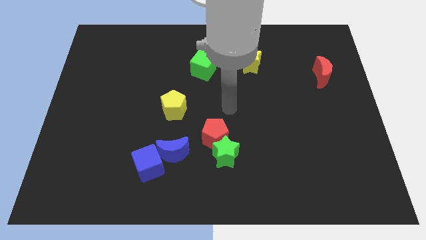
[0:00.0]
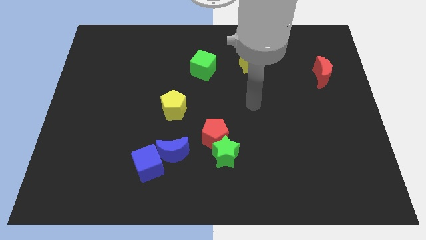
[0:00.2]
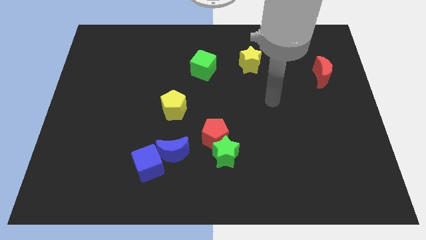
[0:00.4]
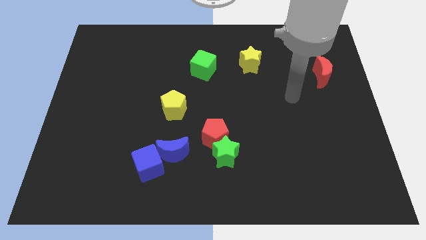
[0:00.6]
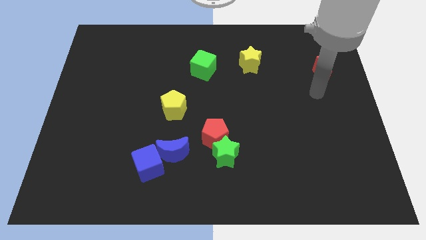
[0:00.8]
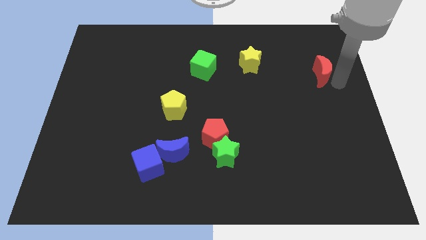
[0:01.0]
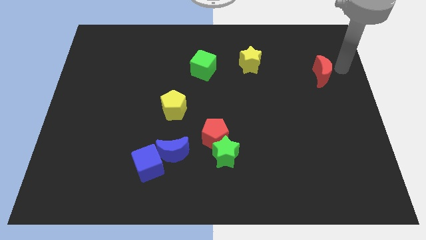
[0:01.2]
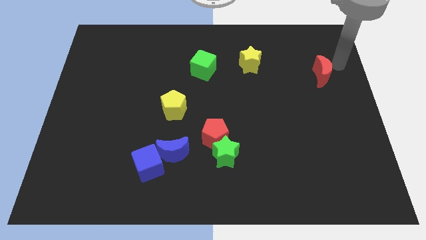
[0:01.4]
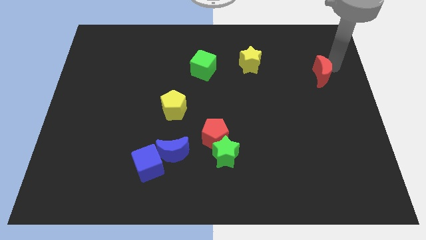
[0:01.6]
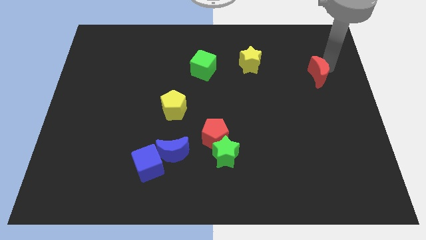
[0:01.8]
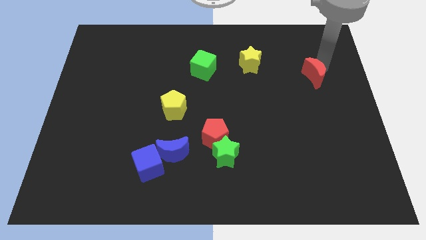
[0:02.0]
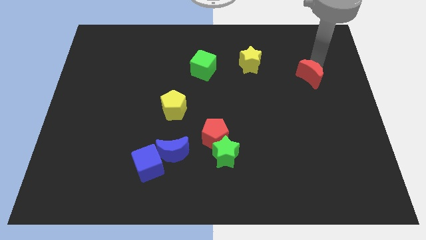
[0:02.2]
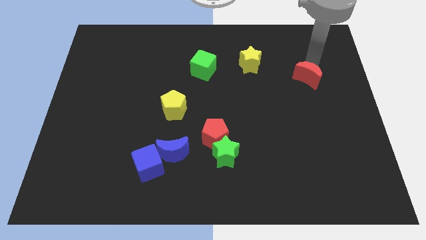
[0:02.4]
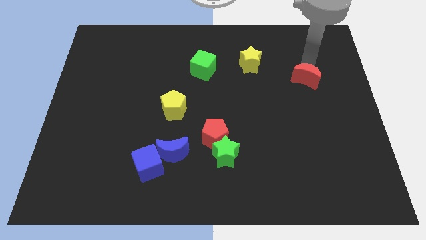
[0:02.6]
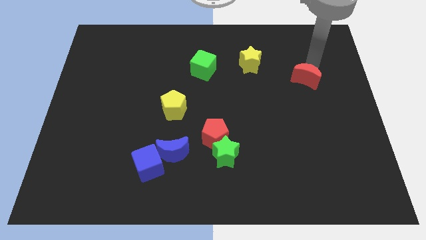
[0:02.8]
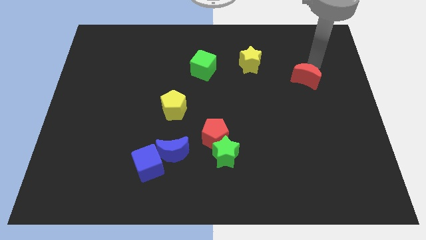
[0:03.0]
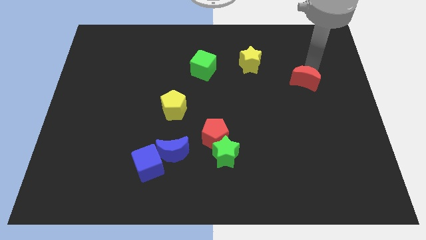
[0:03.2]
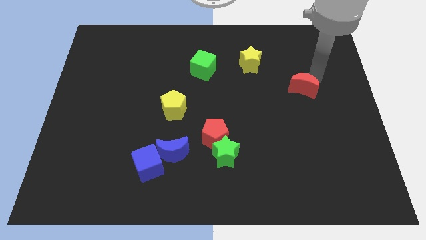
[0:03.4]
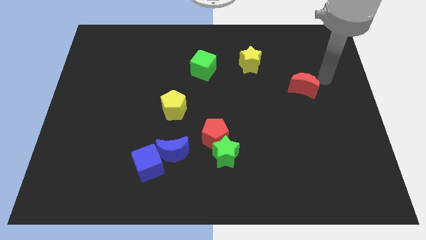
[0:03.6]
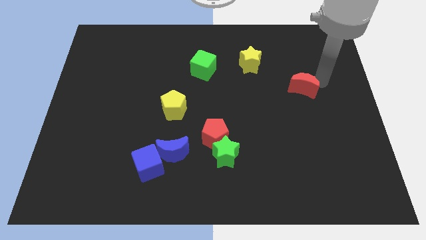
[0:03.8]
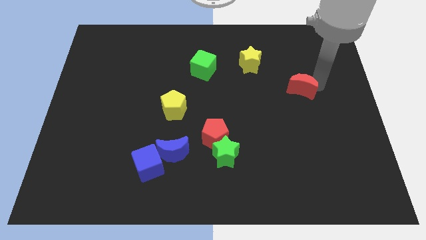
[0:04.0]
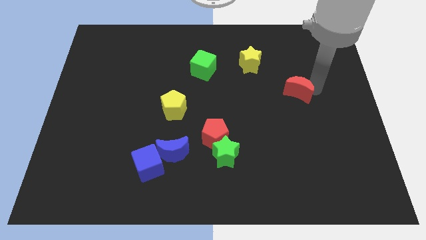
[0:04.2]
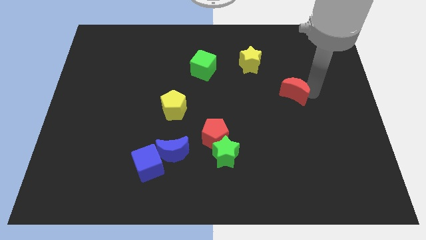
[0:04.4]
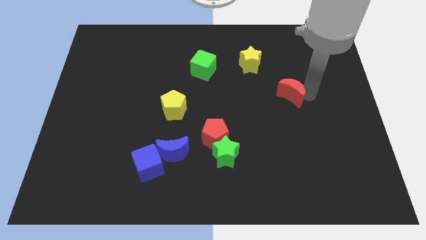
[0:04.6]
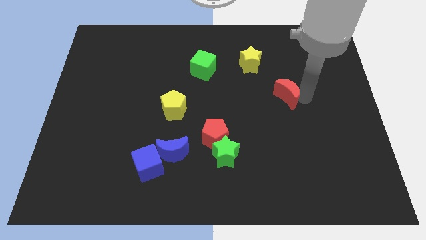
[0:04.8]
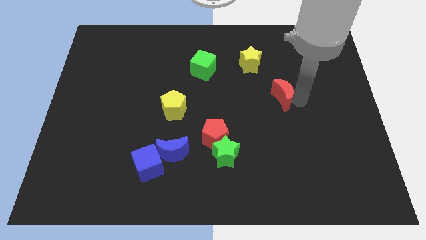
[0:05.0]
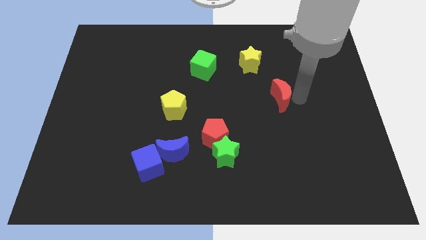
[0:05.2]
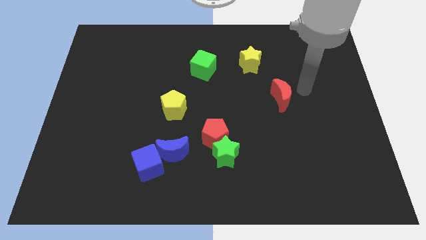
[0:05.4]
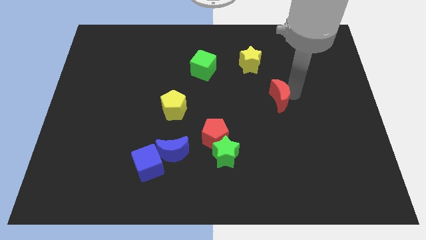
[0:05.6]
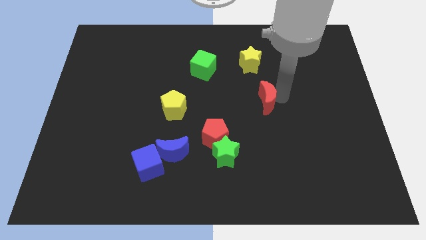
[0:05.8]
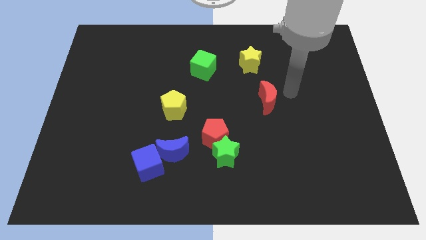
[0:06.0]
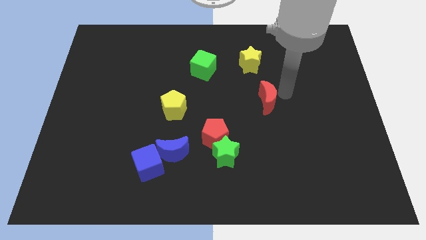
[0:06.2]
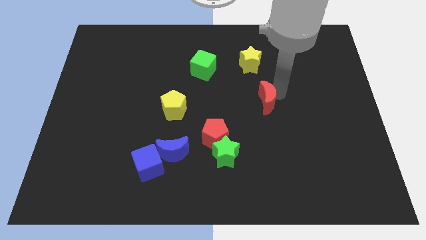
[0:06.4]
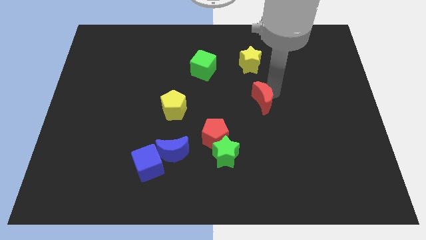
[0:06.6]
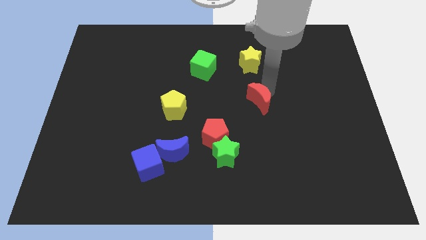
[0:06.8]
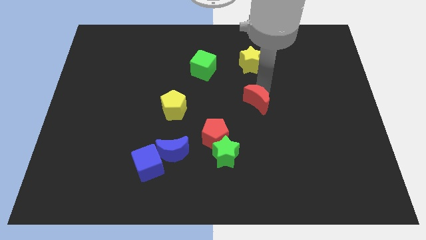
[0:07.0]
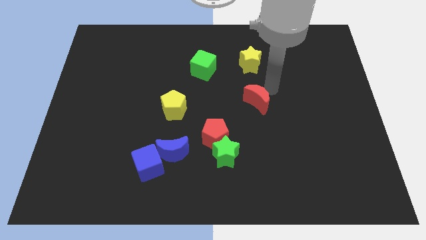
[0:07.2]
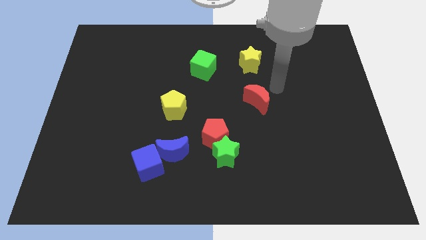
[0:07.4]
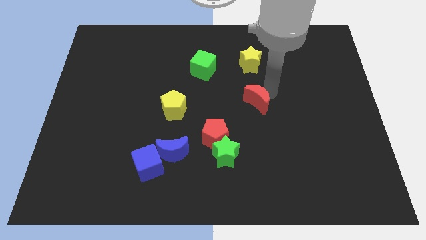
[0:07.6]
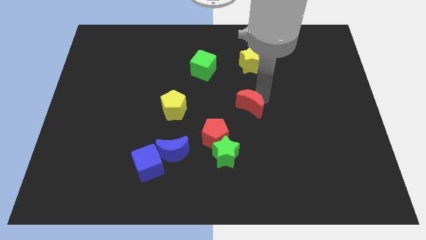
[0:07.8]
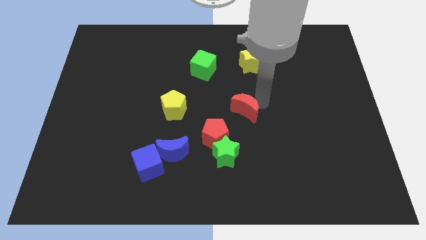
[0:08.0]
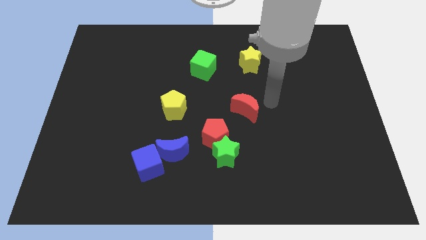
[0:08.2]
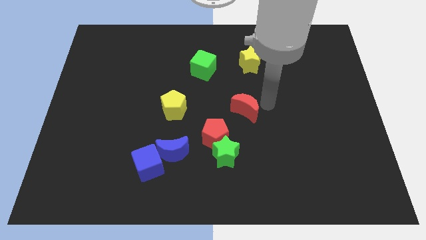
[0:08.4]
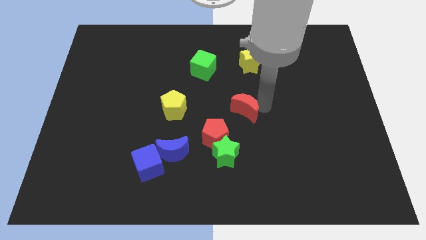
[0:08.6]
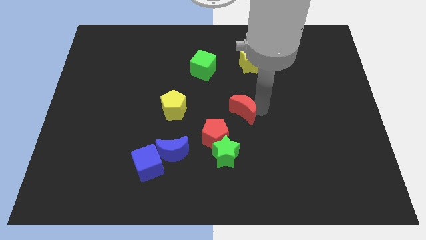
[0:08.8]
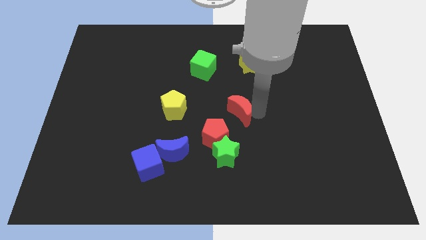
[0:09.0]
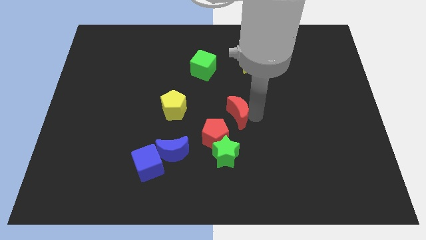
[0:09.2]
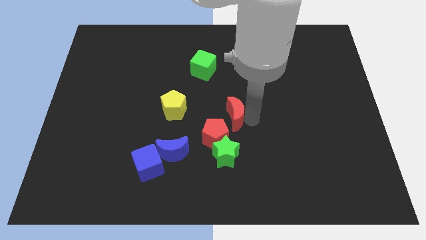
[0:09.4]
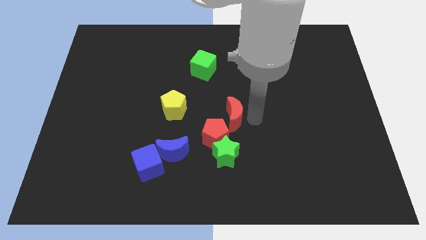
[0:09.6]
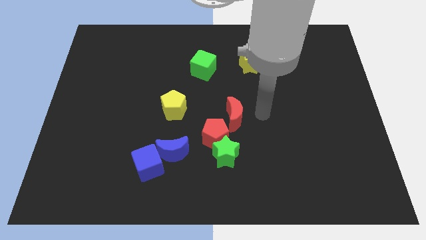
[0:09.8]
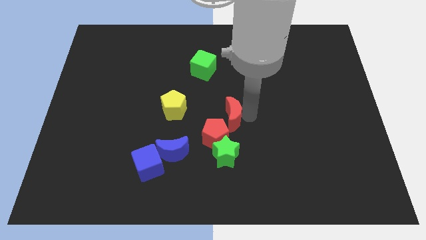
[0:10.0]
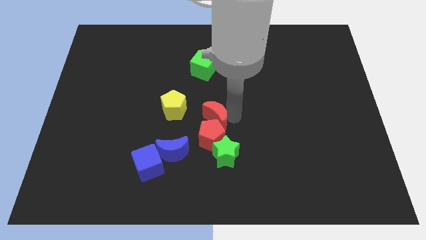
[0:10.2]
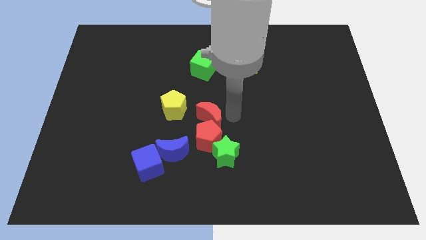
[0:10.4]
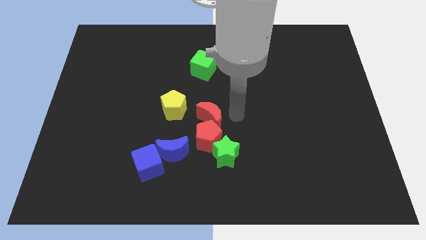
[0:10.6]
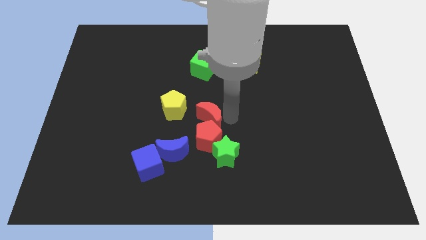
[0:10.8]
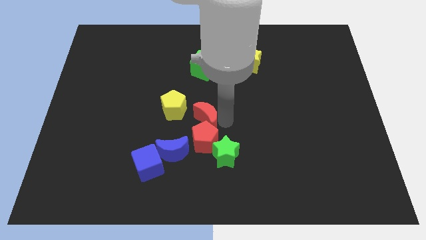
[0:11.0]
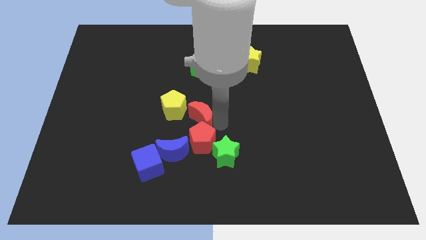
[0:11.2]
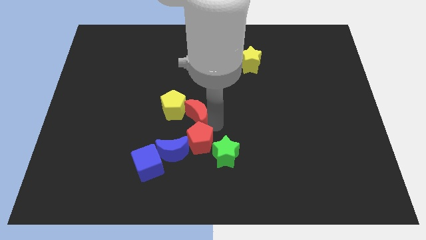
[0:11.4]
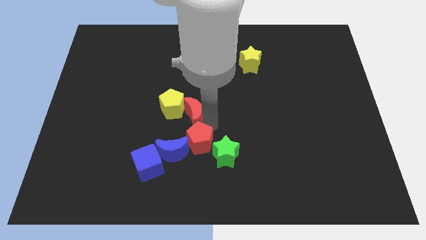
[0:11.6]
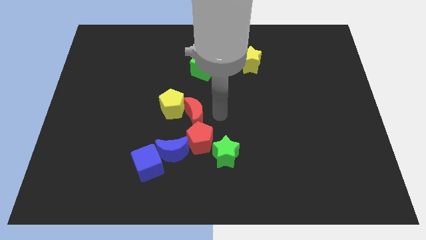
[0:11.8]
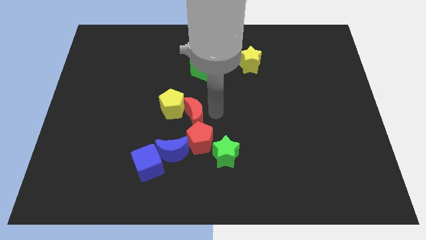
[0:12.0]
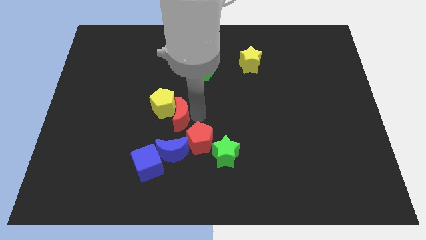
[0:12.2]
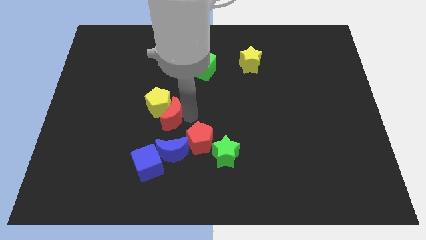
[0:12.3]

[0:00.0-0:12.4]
move the red moon to the top of the blue cube

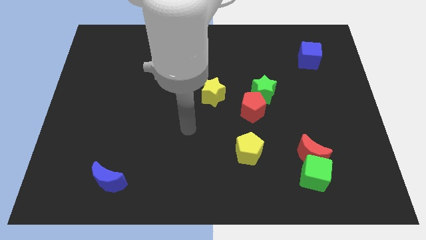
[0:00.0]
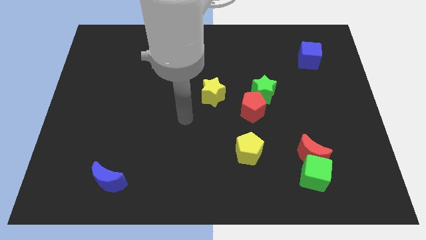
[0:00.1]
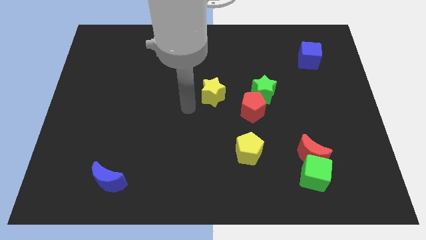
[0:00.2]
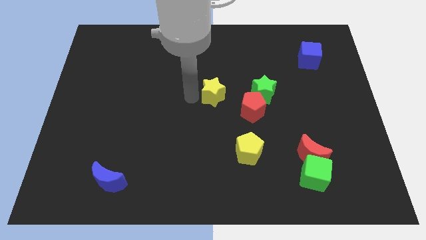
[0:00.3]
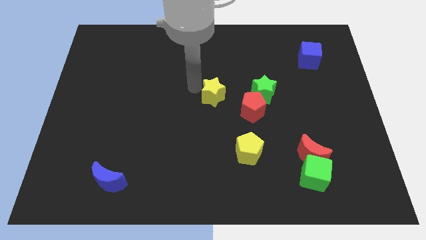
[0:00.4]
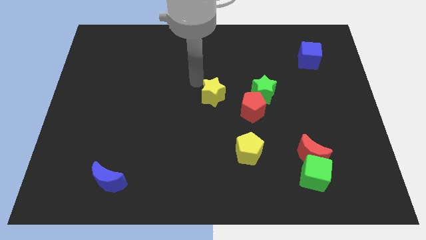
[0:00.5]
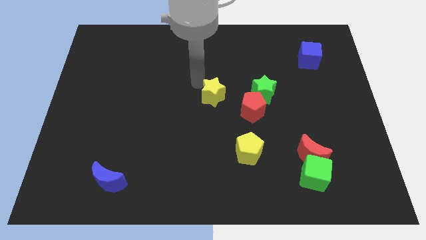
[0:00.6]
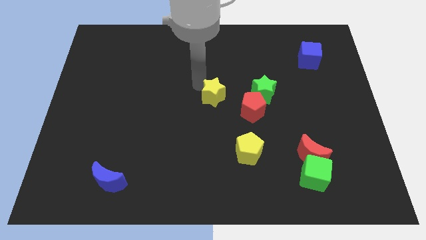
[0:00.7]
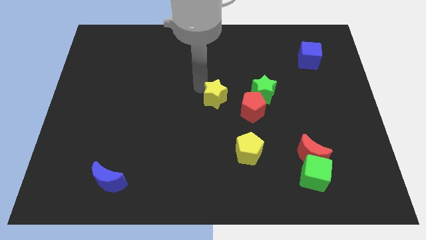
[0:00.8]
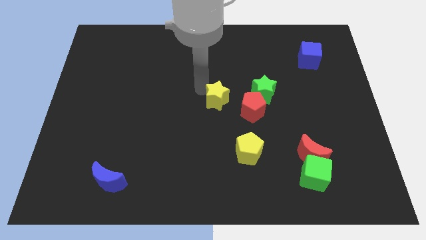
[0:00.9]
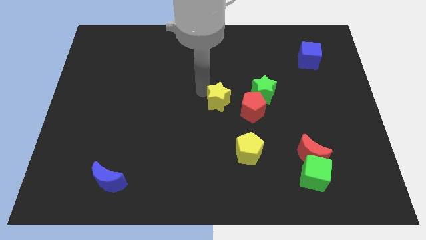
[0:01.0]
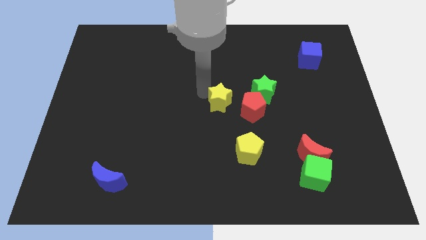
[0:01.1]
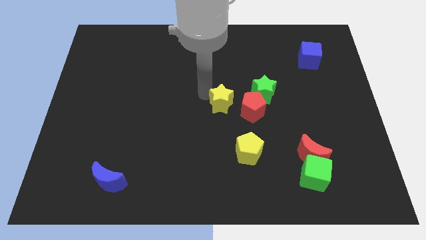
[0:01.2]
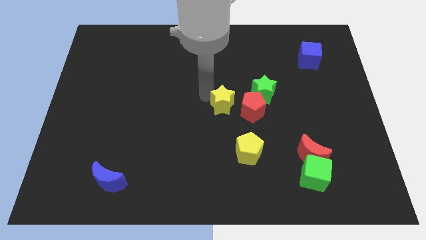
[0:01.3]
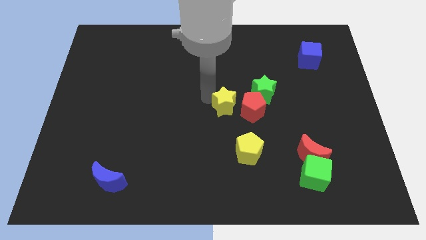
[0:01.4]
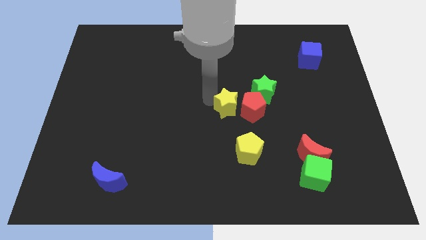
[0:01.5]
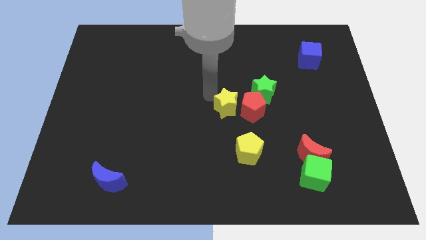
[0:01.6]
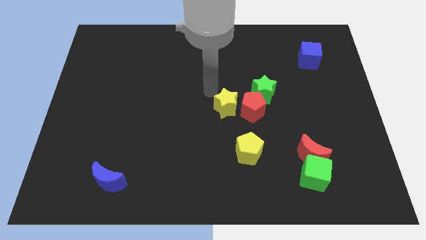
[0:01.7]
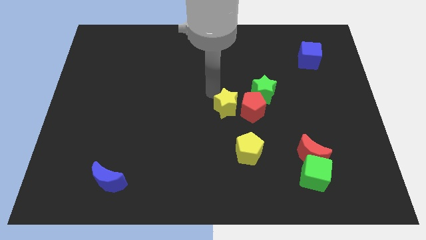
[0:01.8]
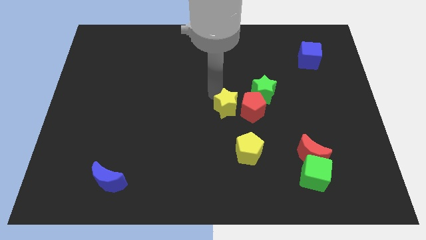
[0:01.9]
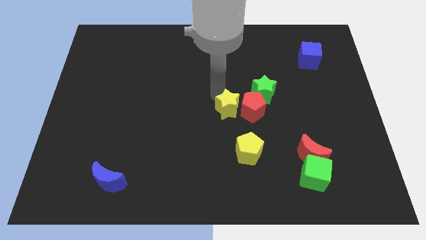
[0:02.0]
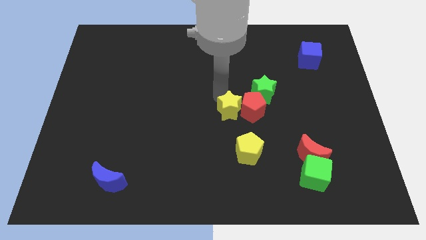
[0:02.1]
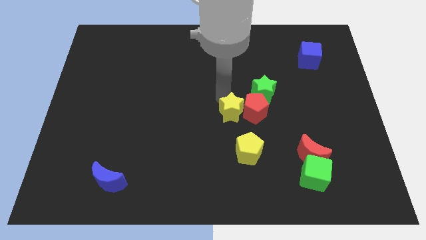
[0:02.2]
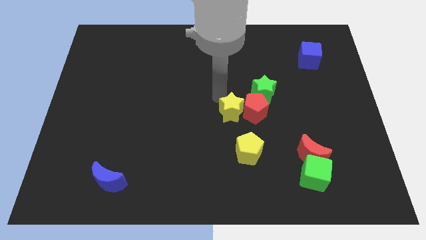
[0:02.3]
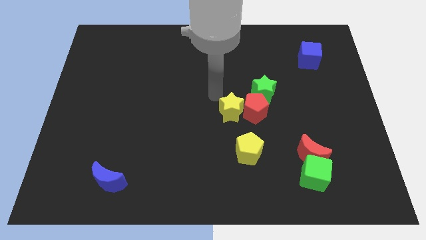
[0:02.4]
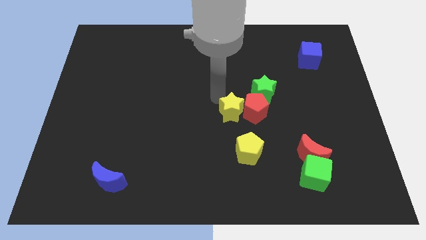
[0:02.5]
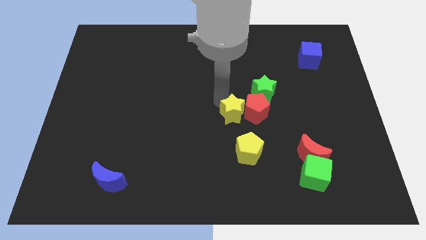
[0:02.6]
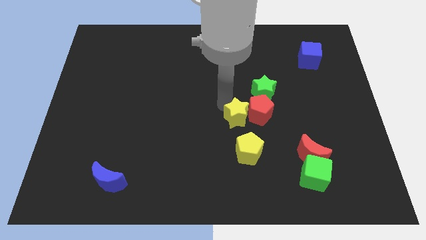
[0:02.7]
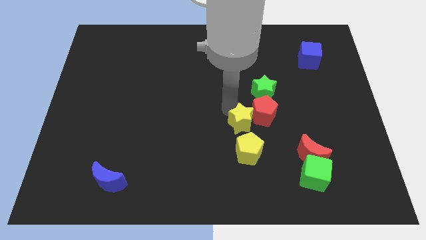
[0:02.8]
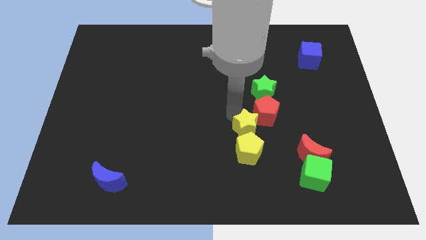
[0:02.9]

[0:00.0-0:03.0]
move the yellow star to the bottom side of the red pentagon
